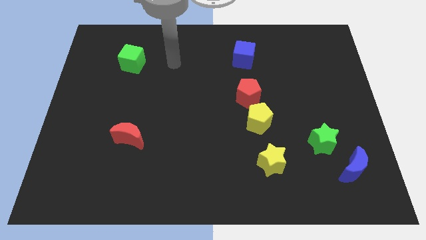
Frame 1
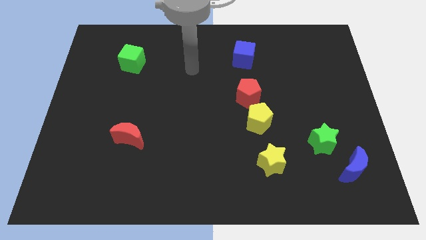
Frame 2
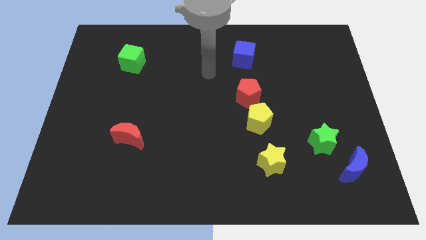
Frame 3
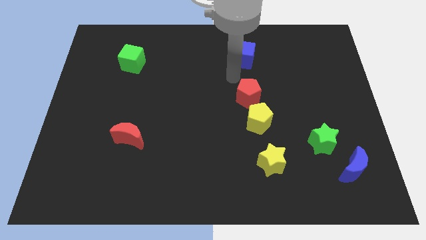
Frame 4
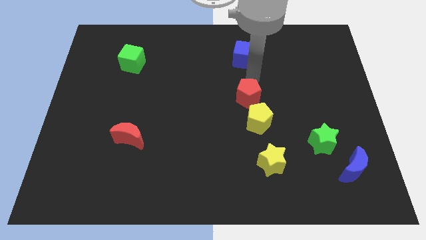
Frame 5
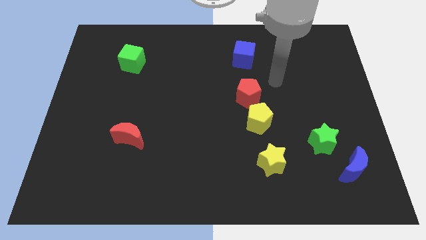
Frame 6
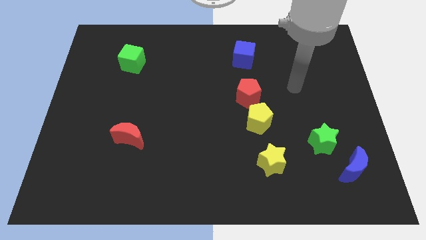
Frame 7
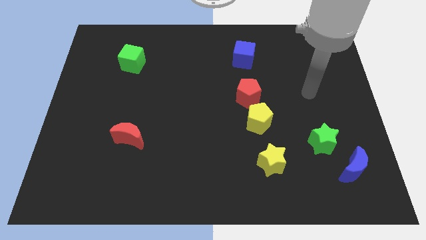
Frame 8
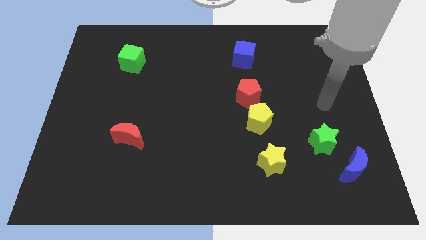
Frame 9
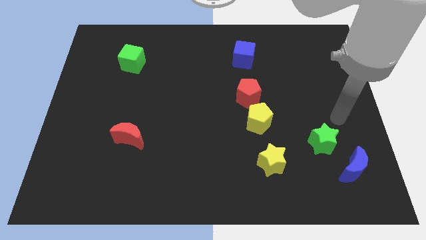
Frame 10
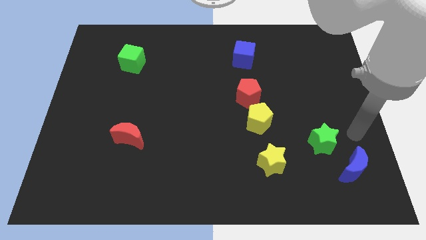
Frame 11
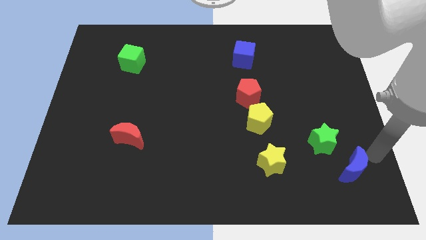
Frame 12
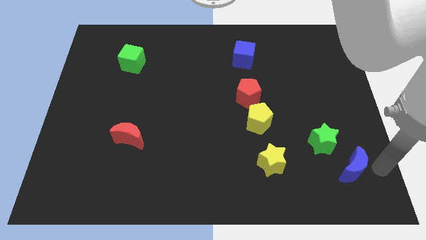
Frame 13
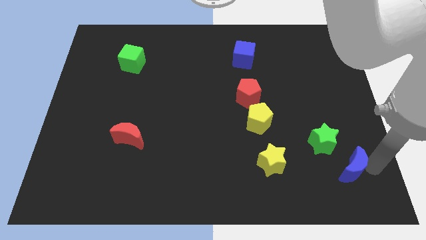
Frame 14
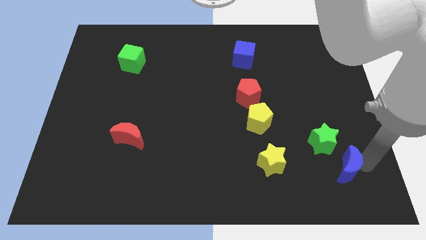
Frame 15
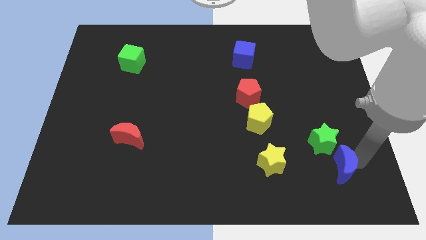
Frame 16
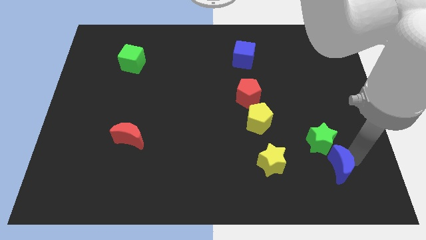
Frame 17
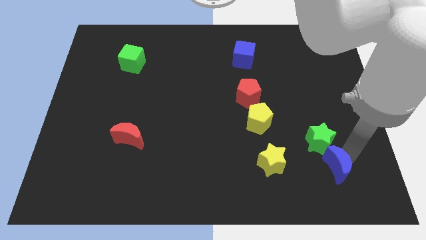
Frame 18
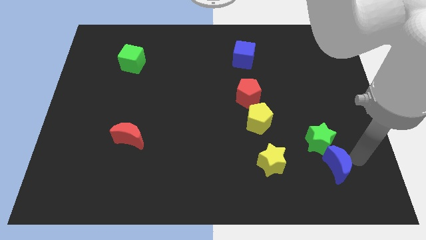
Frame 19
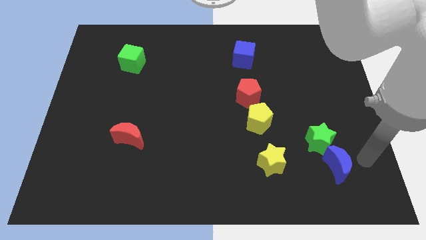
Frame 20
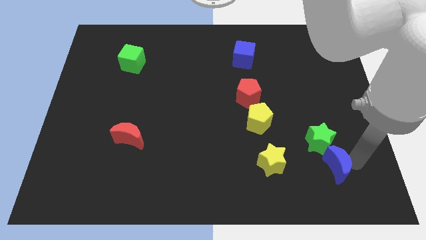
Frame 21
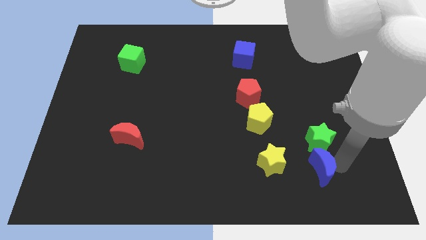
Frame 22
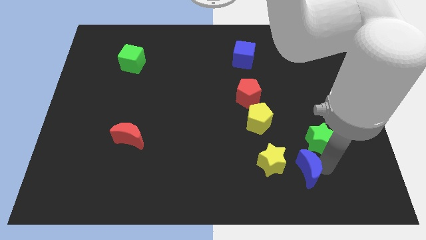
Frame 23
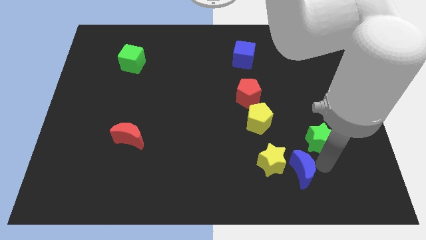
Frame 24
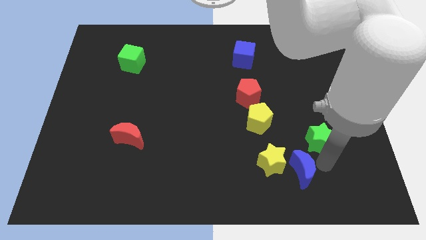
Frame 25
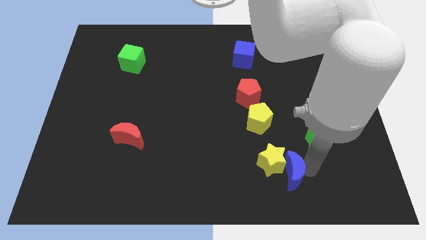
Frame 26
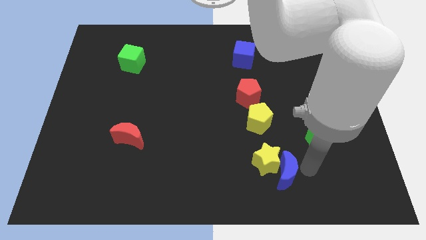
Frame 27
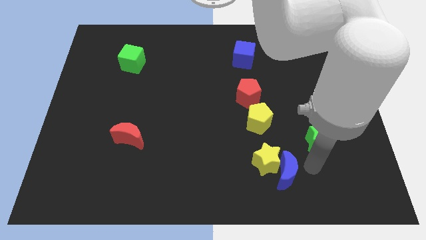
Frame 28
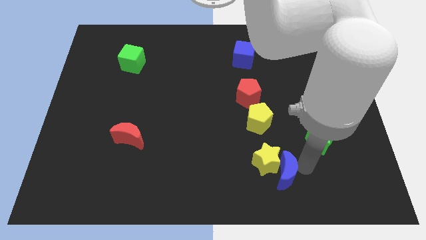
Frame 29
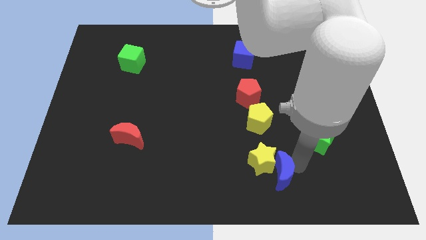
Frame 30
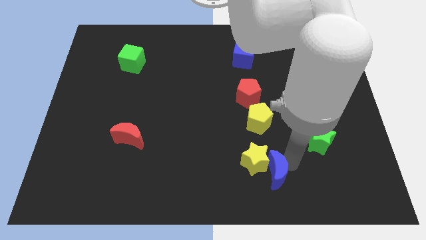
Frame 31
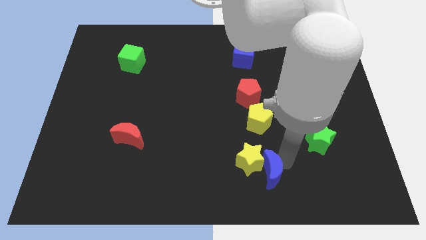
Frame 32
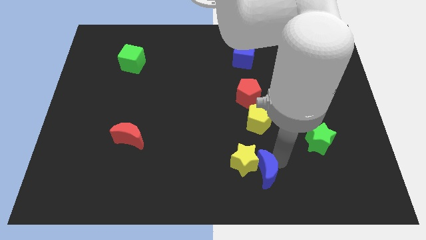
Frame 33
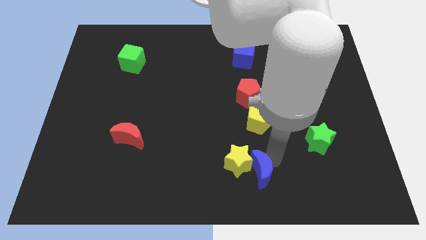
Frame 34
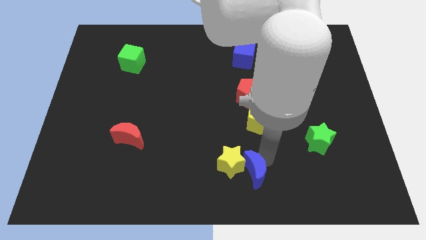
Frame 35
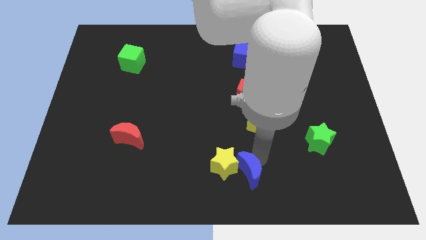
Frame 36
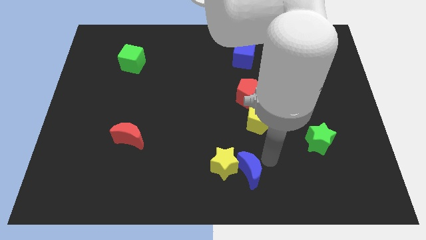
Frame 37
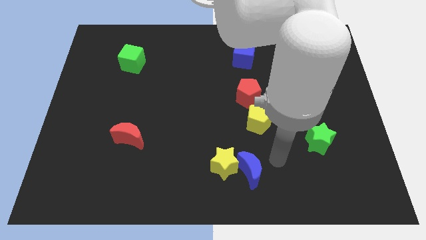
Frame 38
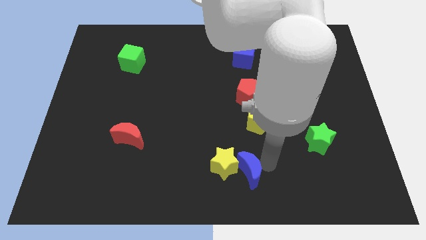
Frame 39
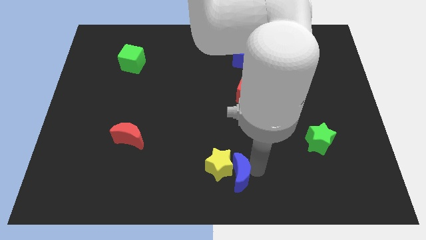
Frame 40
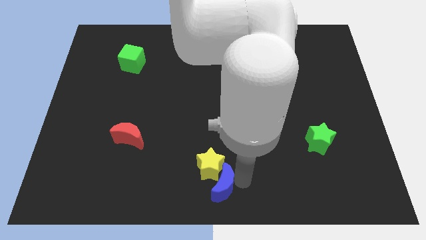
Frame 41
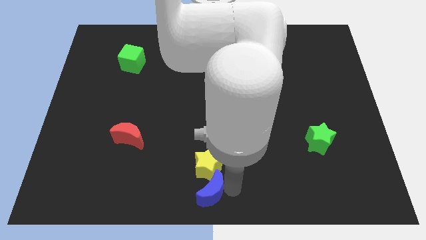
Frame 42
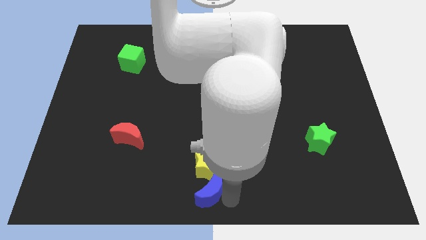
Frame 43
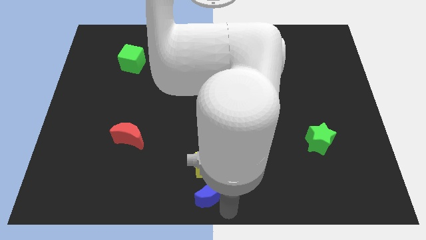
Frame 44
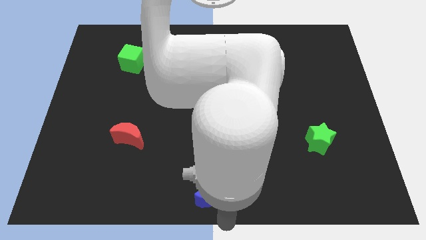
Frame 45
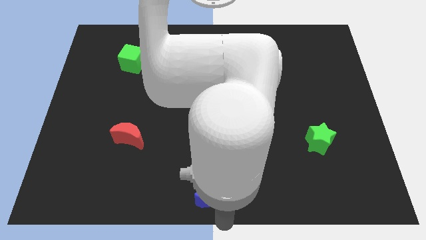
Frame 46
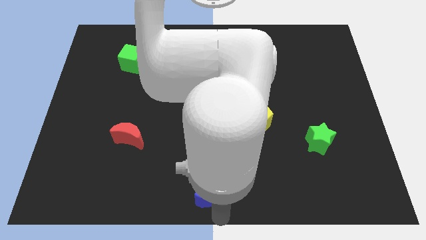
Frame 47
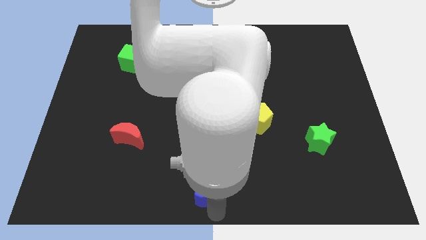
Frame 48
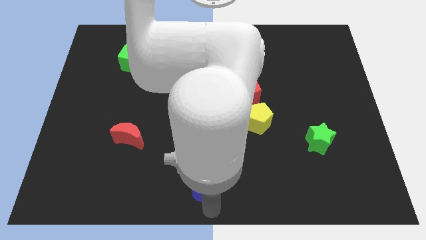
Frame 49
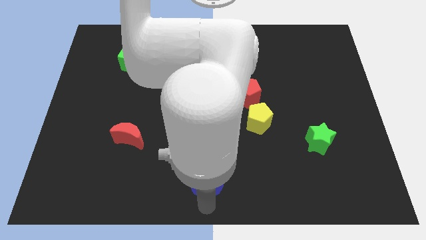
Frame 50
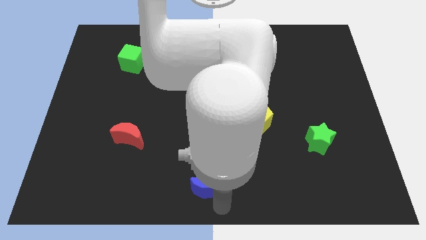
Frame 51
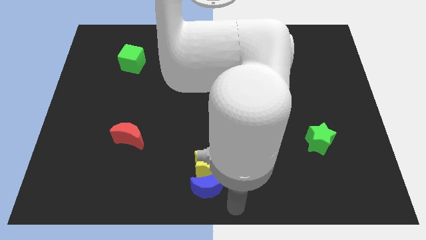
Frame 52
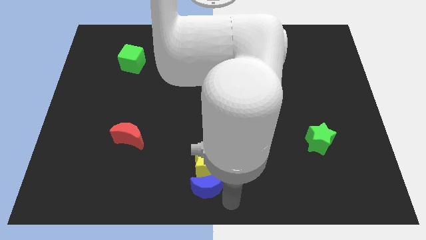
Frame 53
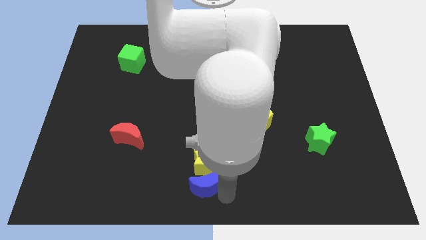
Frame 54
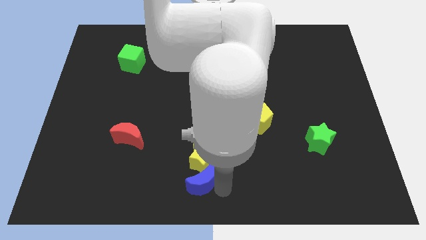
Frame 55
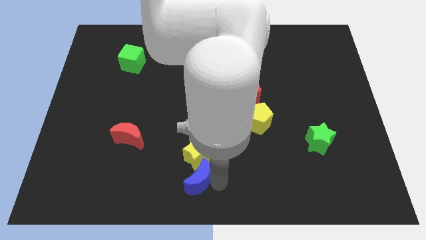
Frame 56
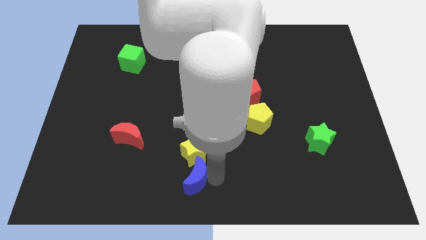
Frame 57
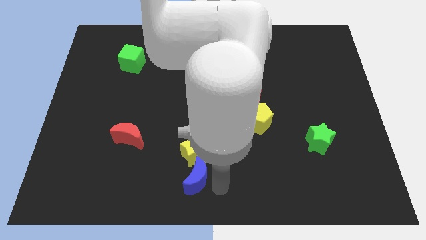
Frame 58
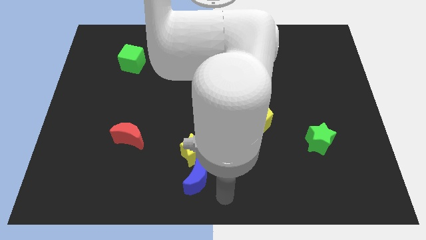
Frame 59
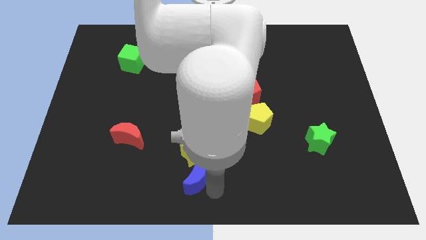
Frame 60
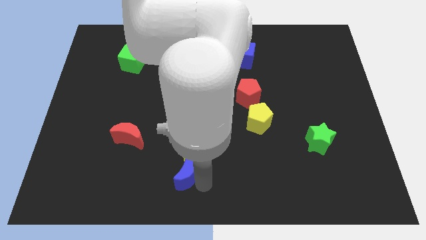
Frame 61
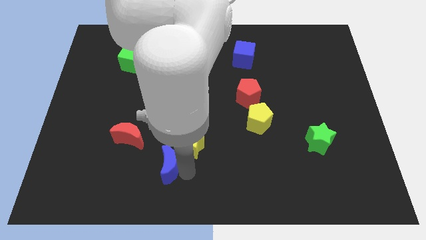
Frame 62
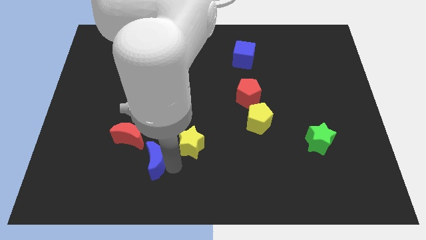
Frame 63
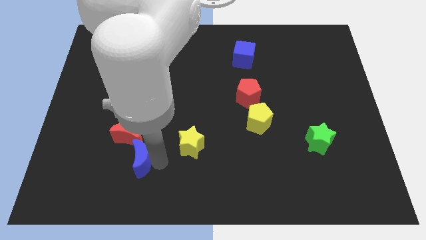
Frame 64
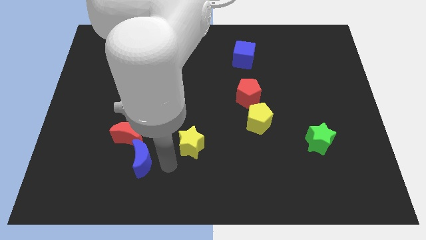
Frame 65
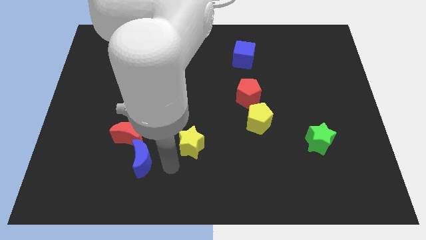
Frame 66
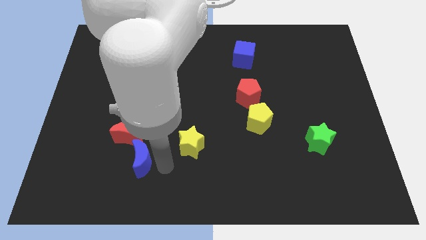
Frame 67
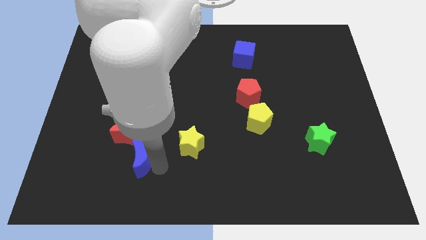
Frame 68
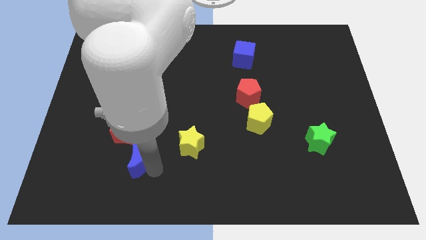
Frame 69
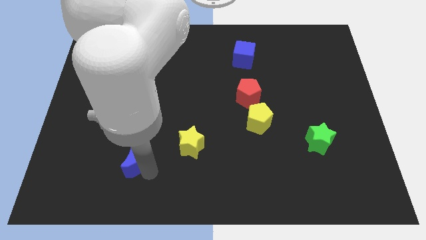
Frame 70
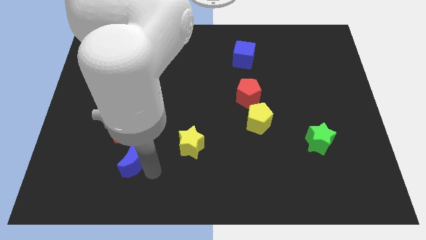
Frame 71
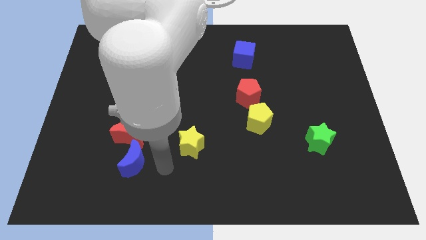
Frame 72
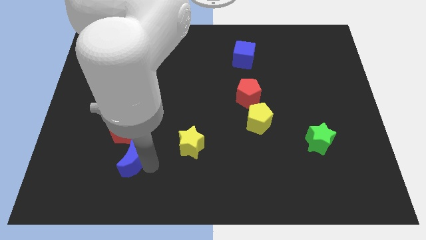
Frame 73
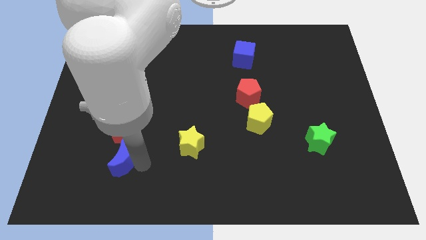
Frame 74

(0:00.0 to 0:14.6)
put the blue moon to the bottom left of the red moon
